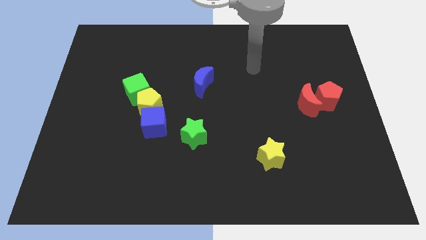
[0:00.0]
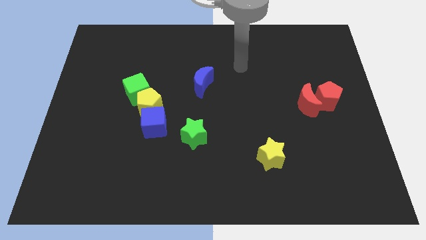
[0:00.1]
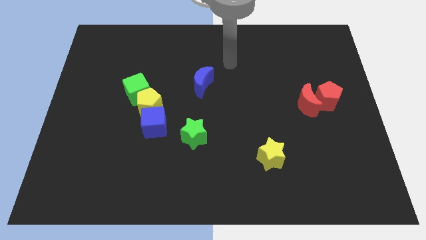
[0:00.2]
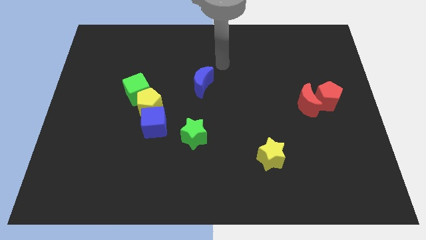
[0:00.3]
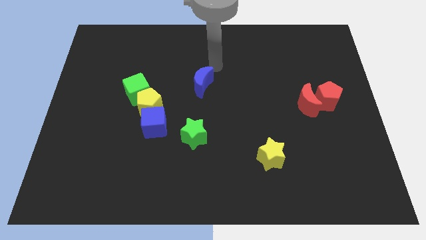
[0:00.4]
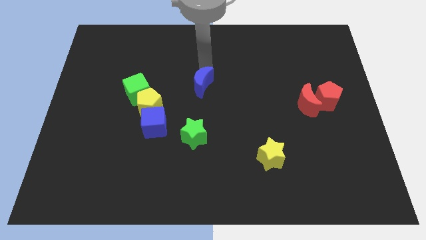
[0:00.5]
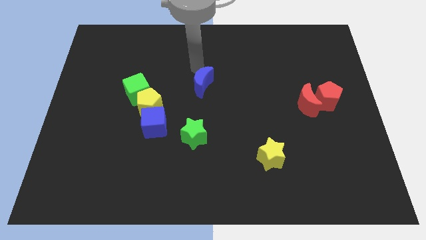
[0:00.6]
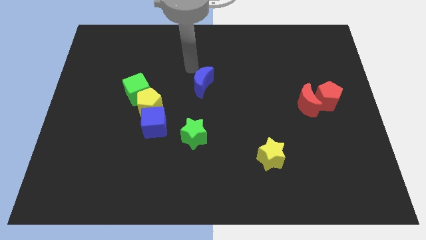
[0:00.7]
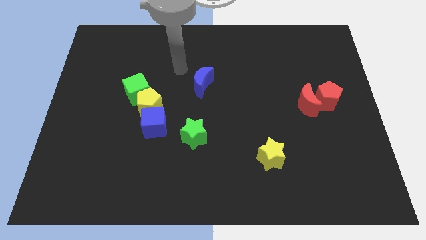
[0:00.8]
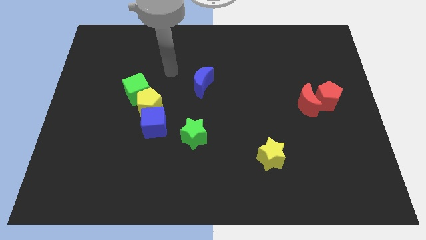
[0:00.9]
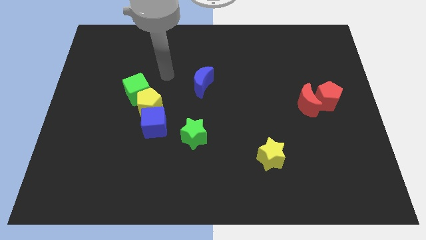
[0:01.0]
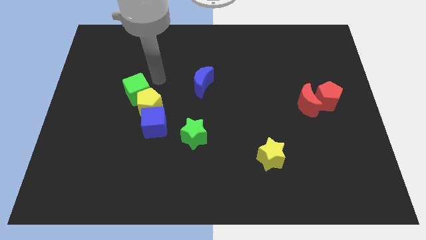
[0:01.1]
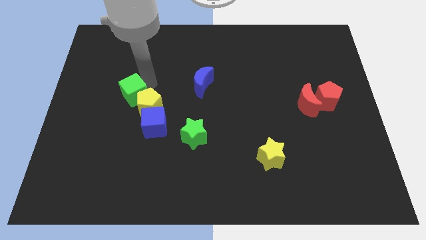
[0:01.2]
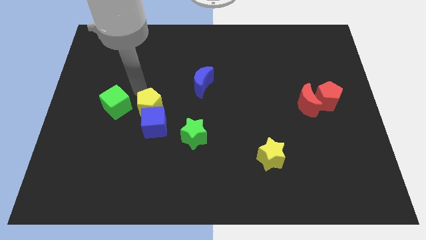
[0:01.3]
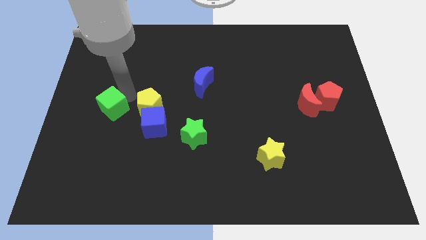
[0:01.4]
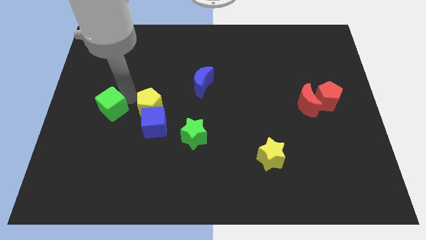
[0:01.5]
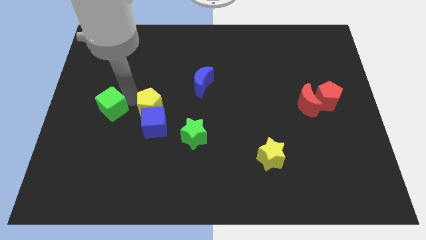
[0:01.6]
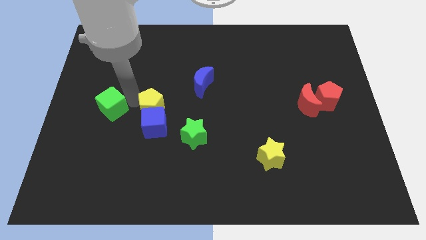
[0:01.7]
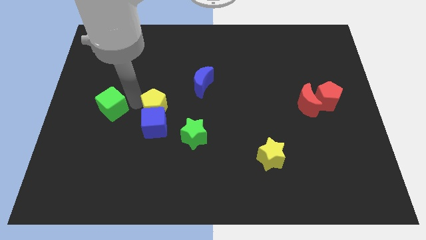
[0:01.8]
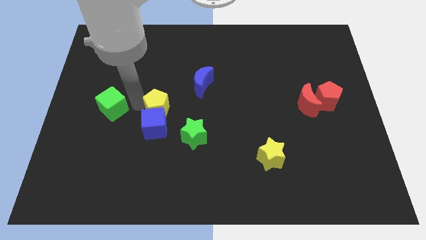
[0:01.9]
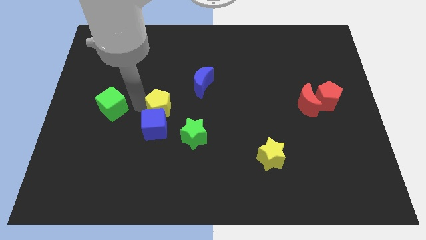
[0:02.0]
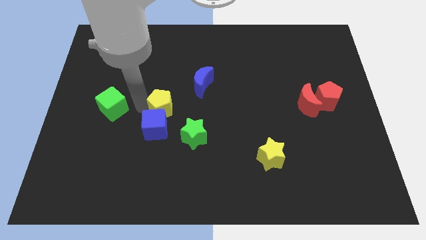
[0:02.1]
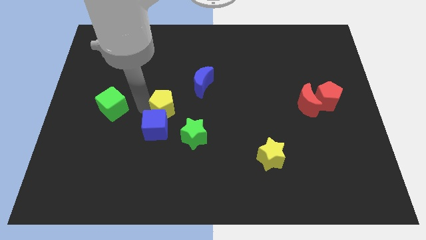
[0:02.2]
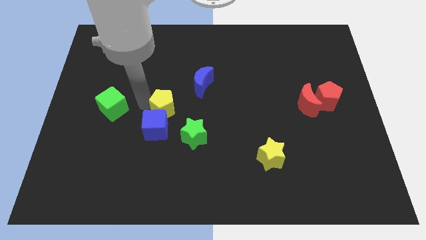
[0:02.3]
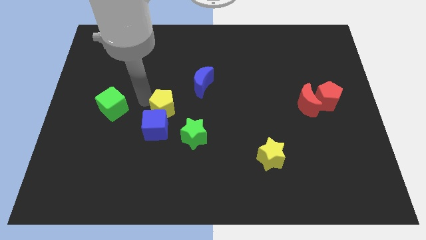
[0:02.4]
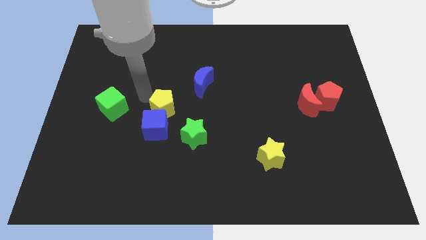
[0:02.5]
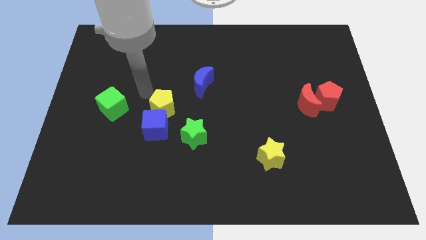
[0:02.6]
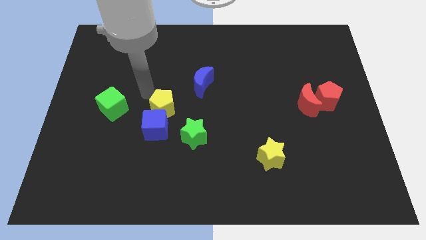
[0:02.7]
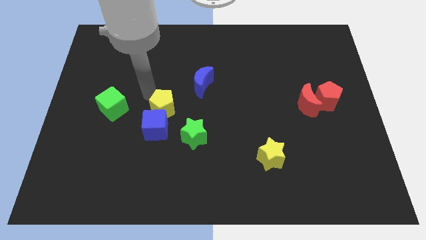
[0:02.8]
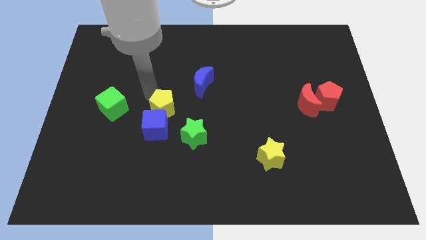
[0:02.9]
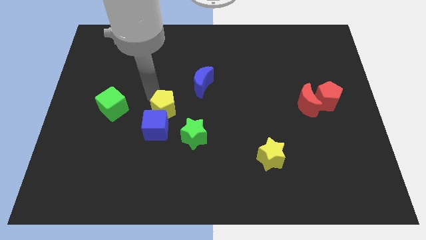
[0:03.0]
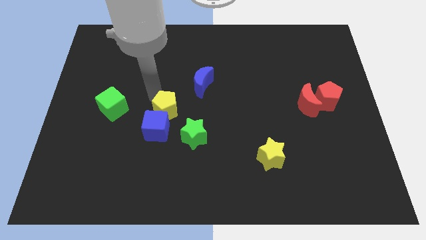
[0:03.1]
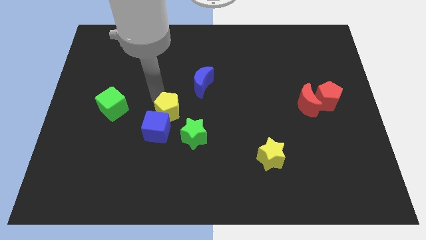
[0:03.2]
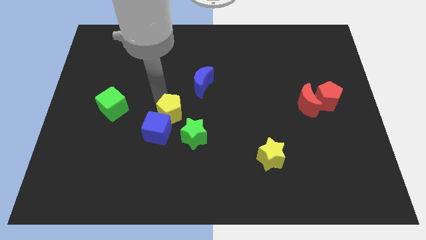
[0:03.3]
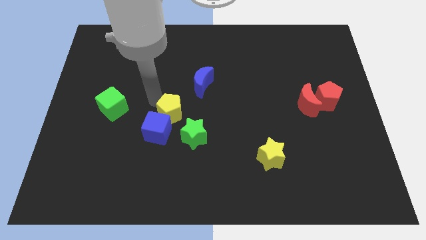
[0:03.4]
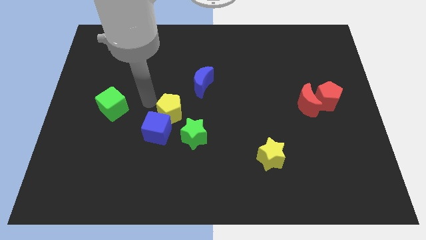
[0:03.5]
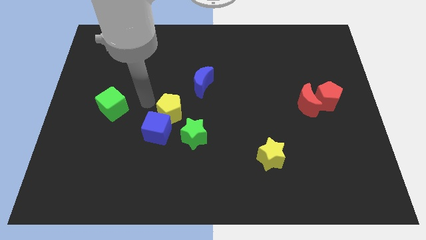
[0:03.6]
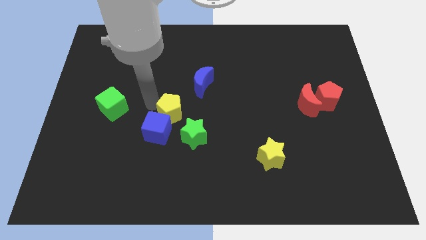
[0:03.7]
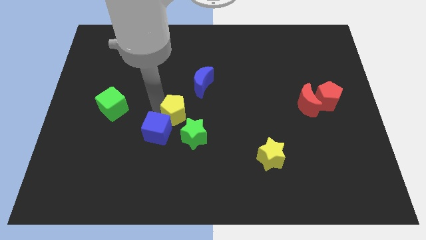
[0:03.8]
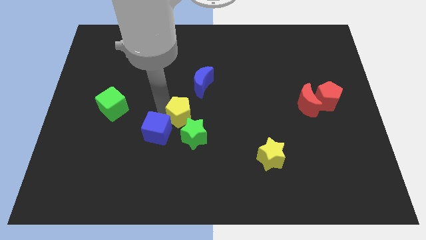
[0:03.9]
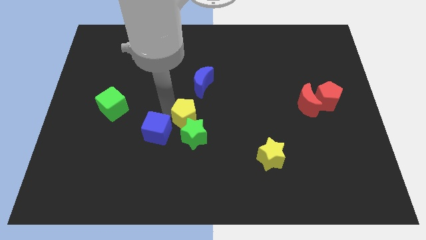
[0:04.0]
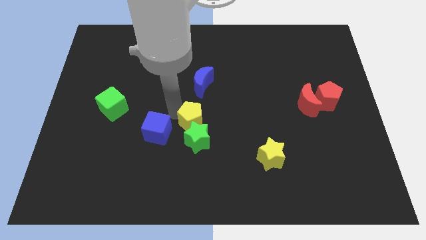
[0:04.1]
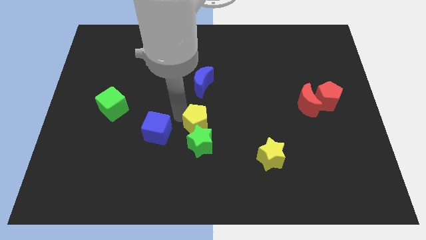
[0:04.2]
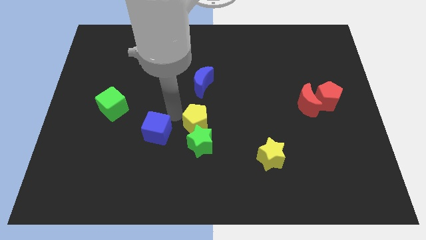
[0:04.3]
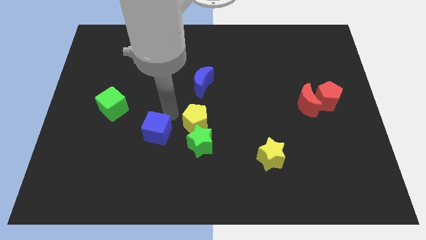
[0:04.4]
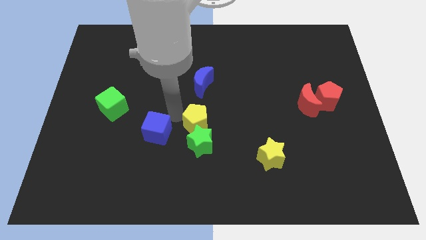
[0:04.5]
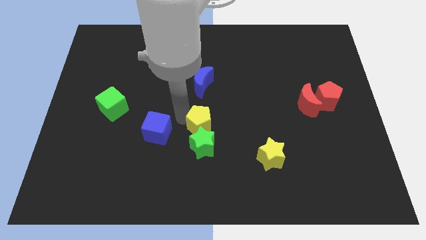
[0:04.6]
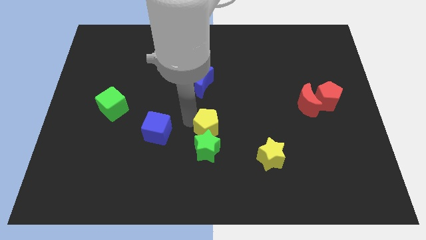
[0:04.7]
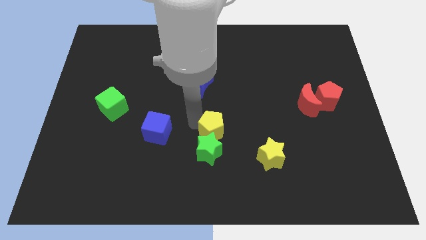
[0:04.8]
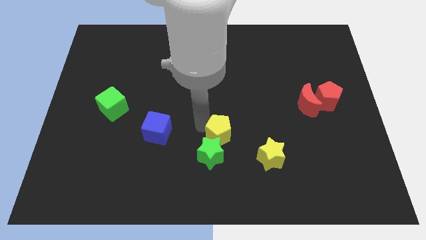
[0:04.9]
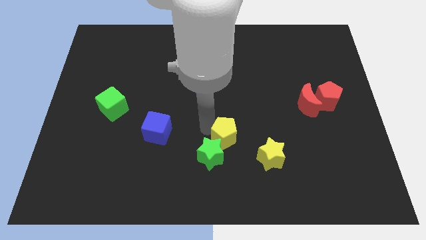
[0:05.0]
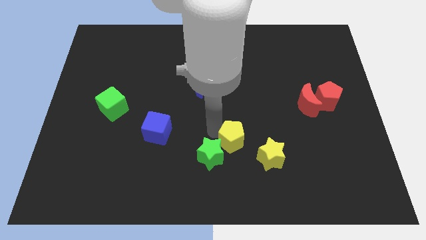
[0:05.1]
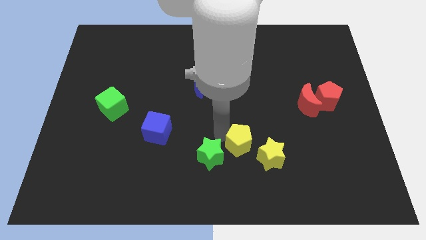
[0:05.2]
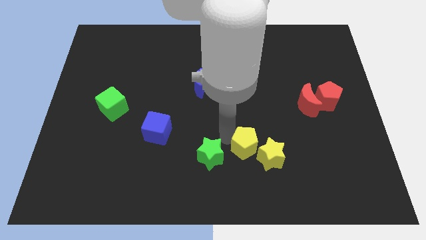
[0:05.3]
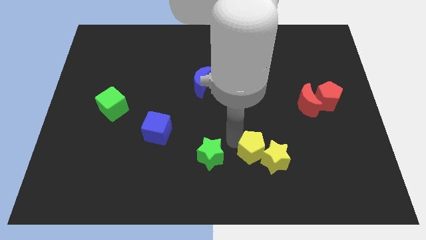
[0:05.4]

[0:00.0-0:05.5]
push the yellow pentagon to the yellow star

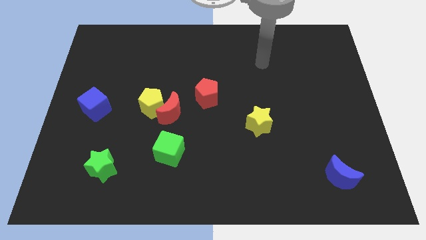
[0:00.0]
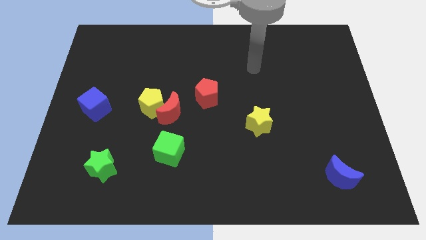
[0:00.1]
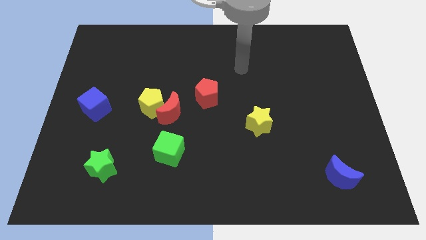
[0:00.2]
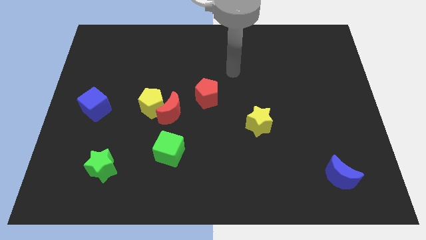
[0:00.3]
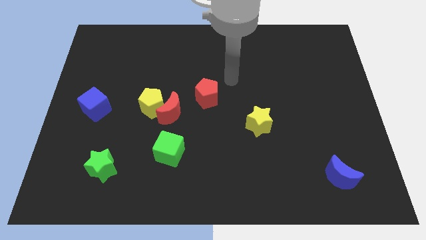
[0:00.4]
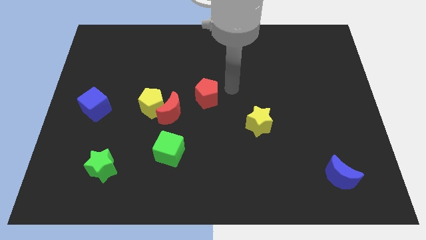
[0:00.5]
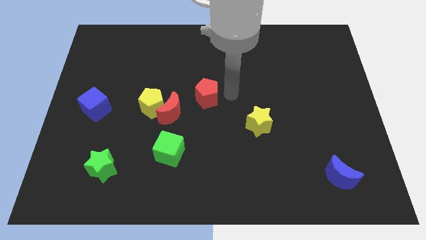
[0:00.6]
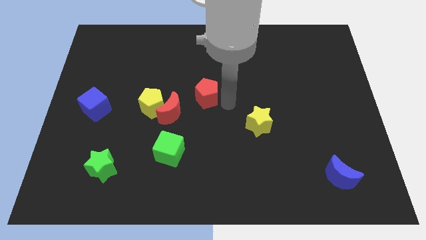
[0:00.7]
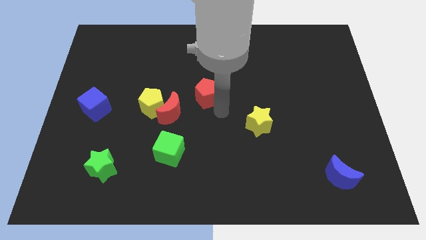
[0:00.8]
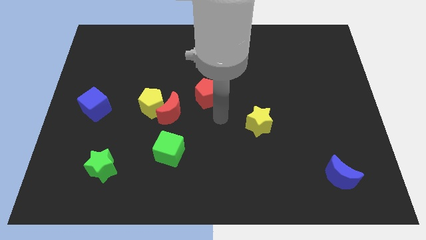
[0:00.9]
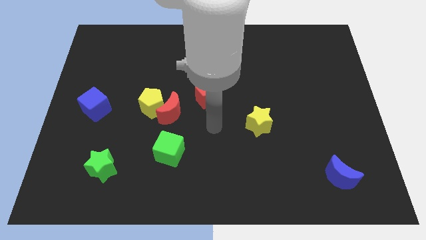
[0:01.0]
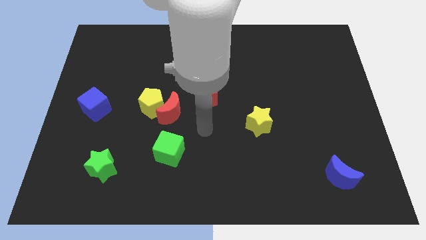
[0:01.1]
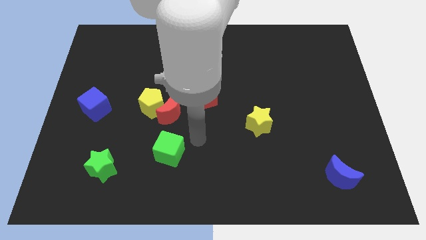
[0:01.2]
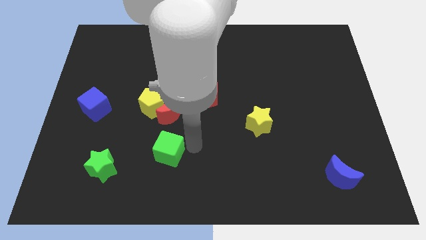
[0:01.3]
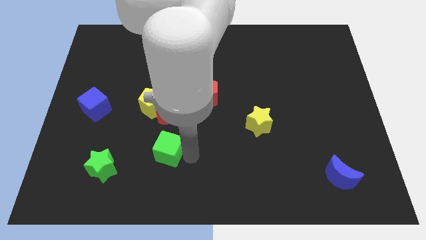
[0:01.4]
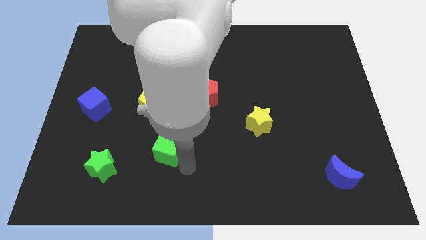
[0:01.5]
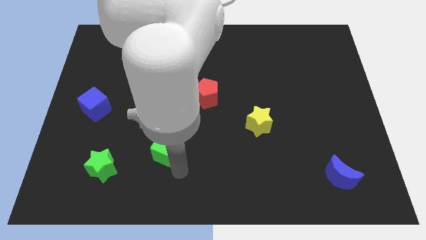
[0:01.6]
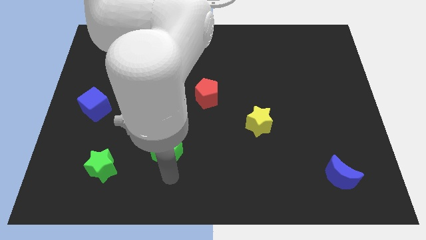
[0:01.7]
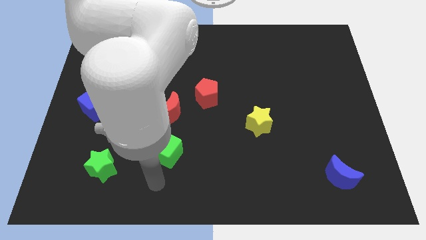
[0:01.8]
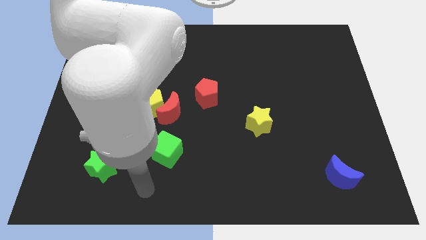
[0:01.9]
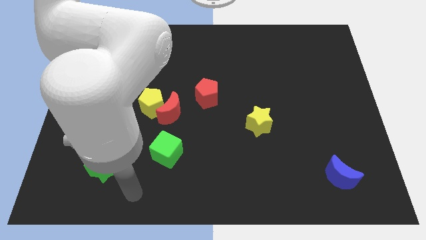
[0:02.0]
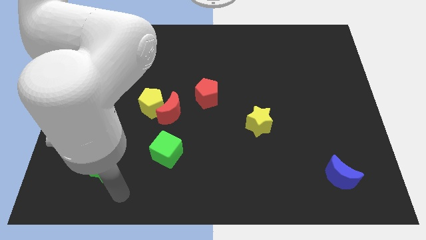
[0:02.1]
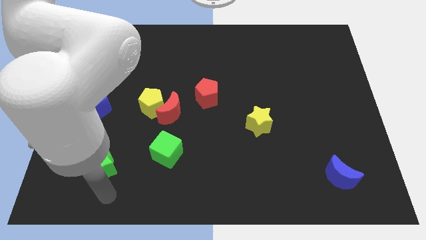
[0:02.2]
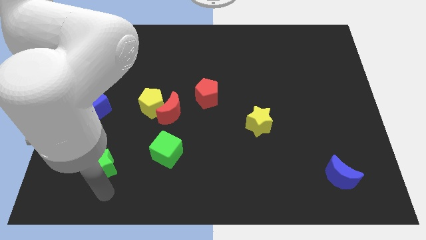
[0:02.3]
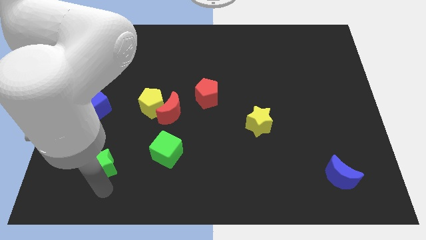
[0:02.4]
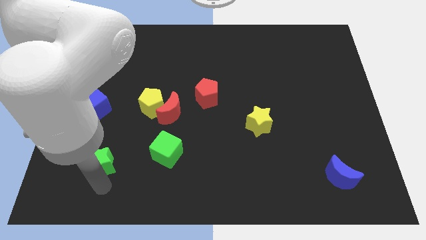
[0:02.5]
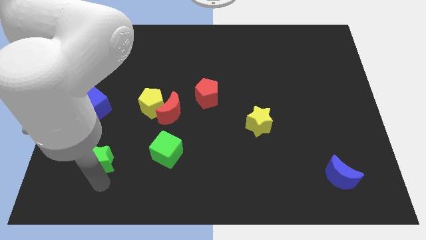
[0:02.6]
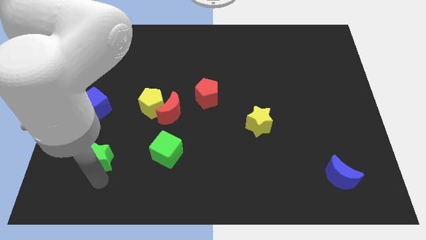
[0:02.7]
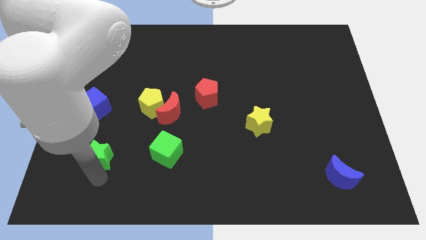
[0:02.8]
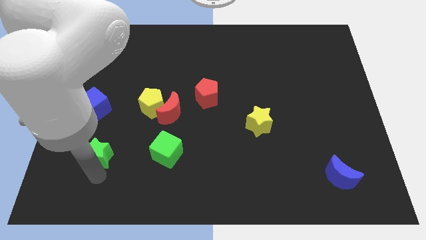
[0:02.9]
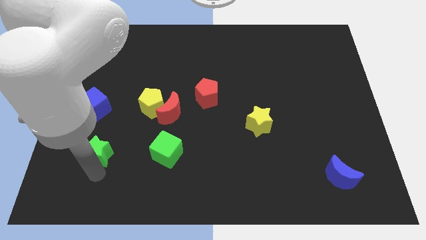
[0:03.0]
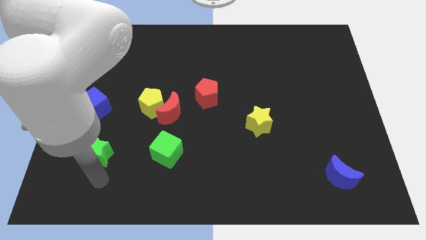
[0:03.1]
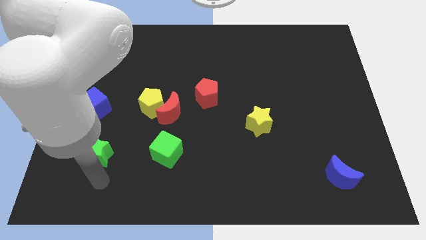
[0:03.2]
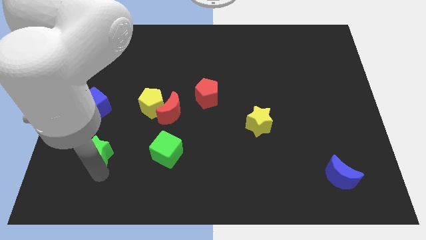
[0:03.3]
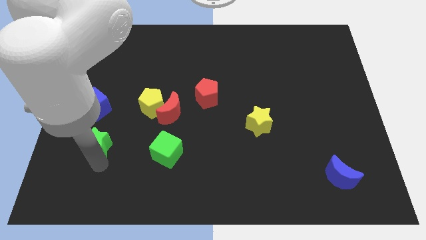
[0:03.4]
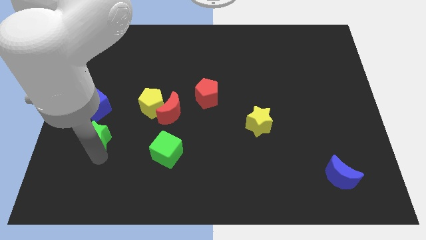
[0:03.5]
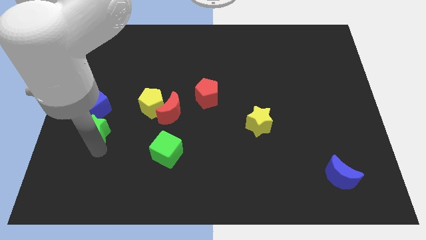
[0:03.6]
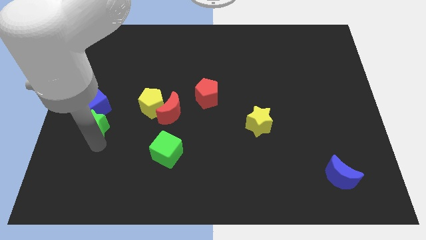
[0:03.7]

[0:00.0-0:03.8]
put the green star close to the blue cube
